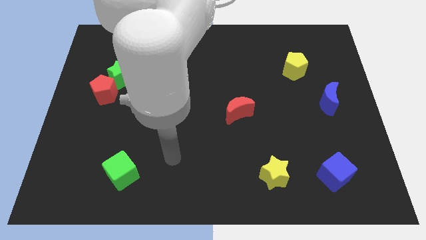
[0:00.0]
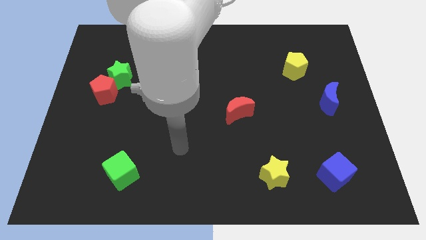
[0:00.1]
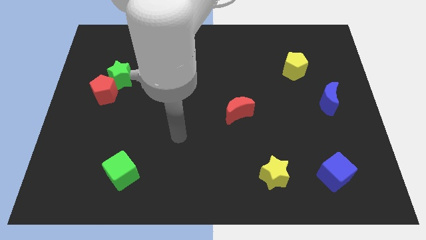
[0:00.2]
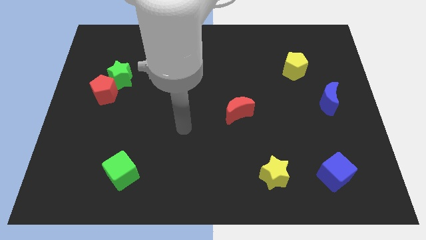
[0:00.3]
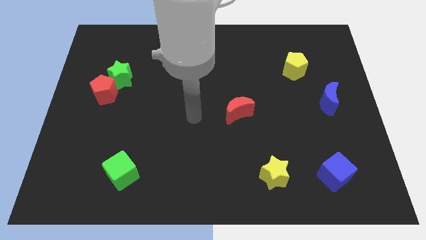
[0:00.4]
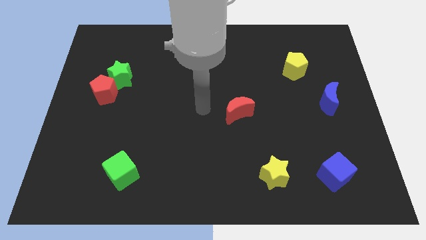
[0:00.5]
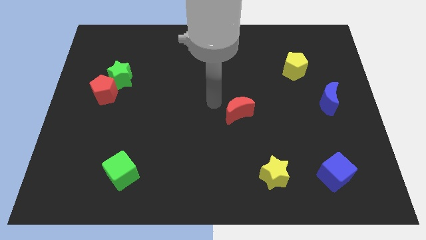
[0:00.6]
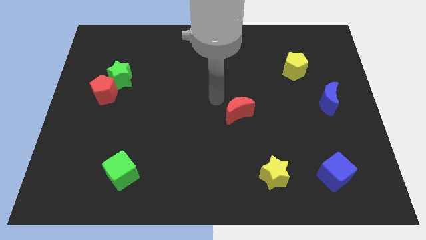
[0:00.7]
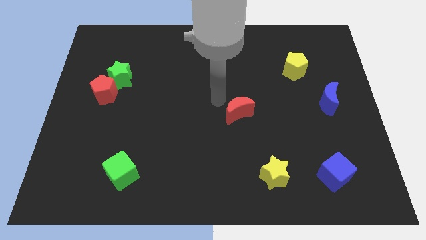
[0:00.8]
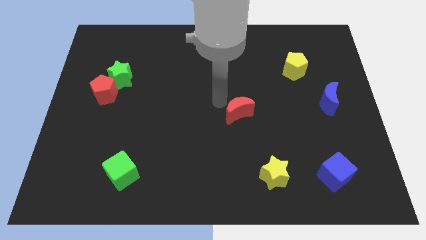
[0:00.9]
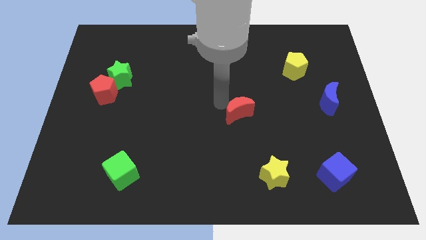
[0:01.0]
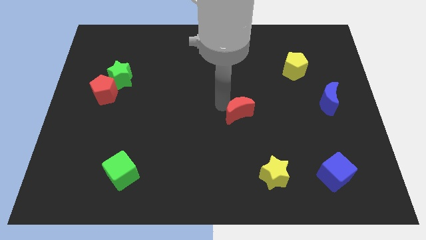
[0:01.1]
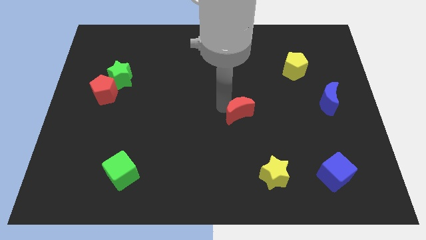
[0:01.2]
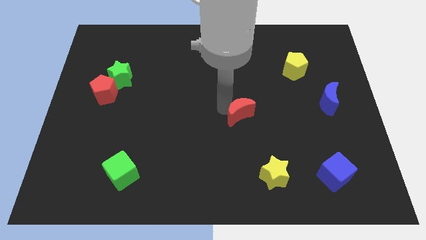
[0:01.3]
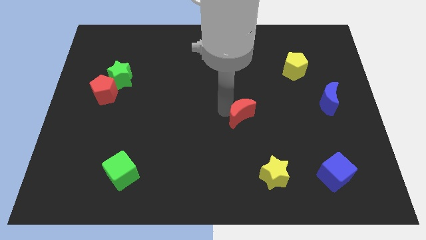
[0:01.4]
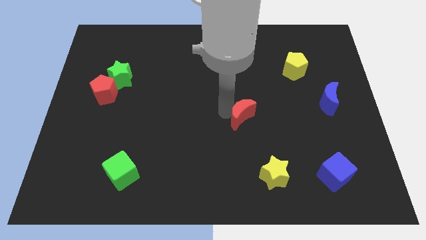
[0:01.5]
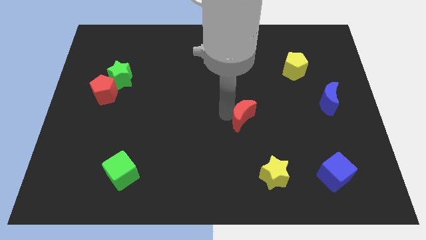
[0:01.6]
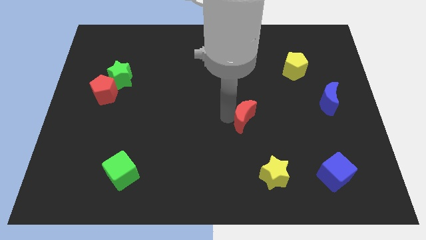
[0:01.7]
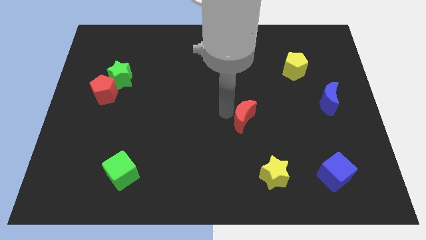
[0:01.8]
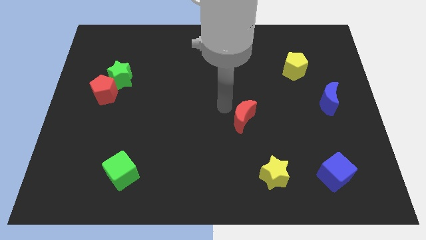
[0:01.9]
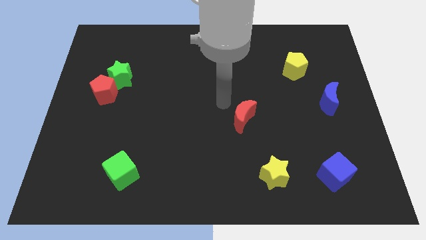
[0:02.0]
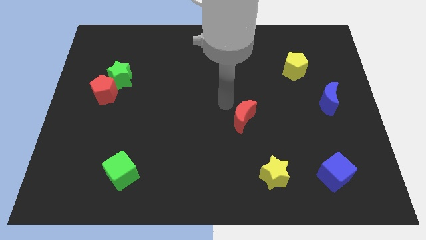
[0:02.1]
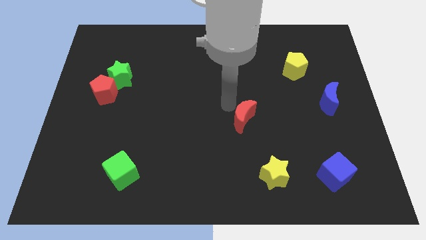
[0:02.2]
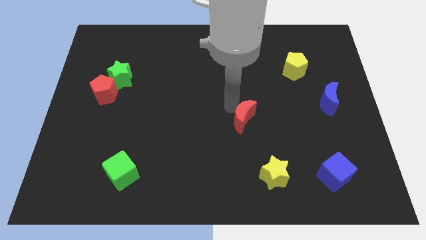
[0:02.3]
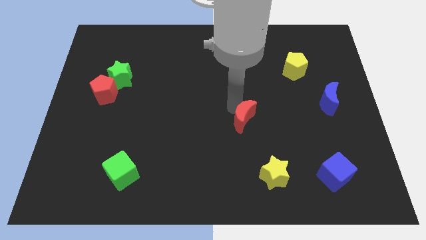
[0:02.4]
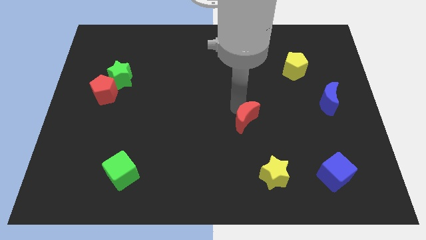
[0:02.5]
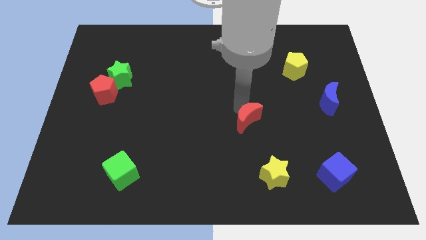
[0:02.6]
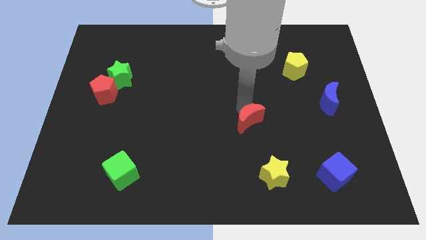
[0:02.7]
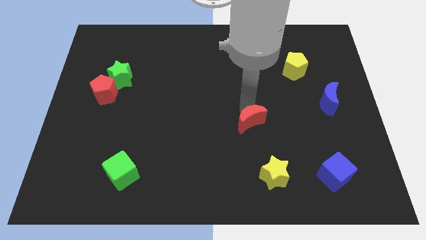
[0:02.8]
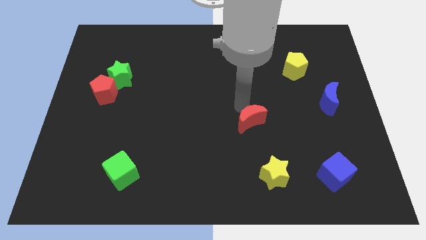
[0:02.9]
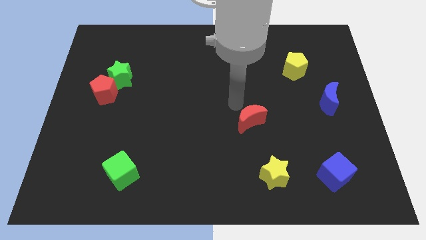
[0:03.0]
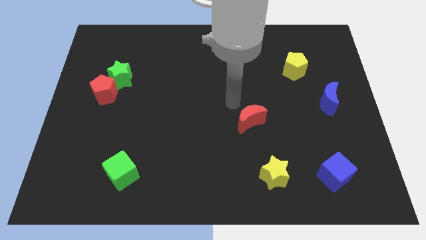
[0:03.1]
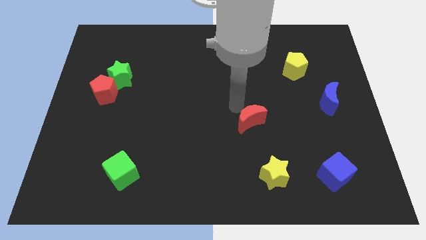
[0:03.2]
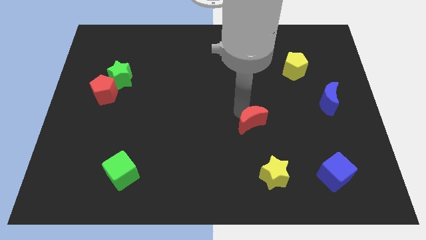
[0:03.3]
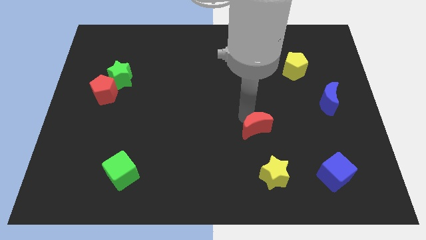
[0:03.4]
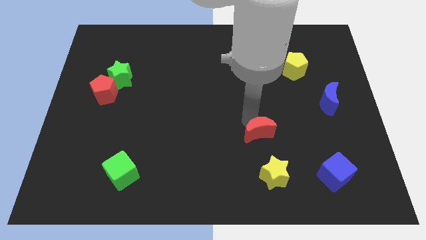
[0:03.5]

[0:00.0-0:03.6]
move the red moon diagonally down and to the right somewhat

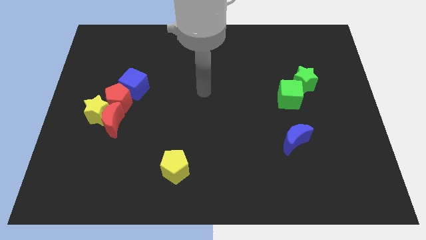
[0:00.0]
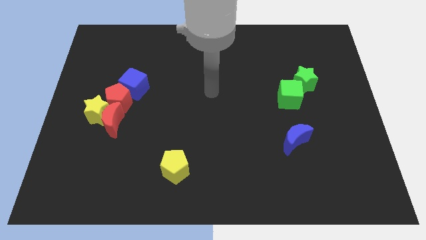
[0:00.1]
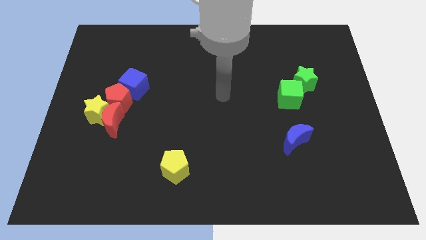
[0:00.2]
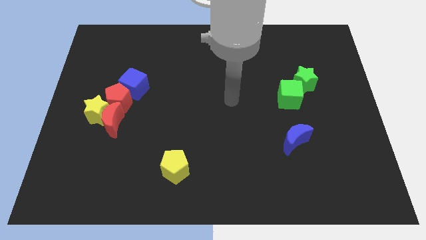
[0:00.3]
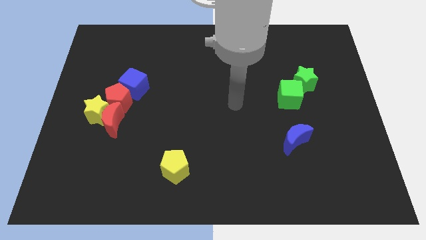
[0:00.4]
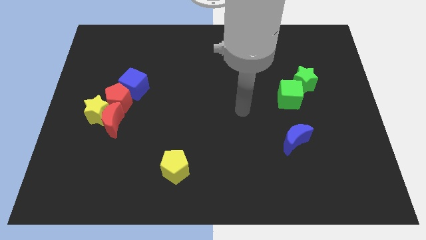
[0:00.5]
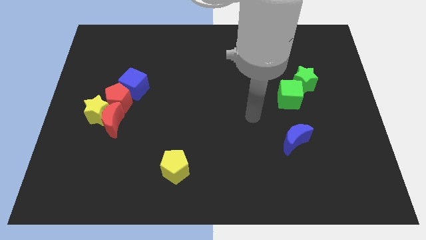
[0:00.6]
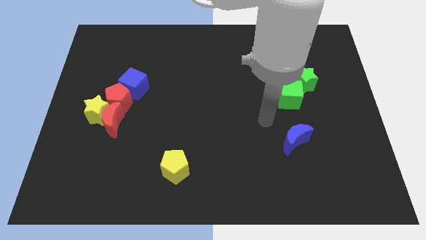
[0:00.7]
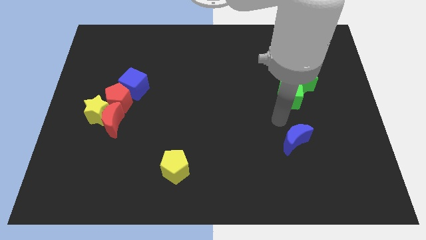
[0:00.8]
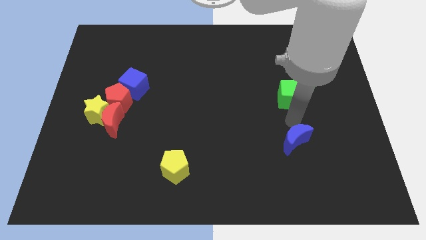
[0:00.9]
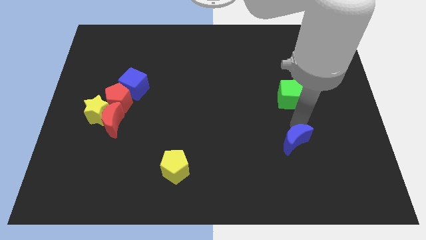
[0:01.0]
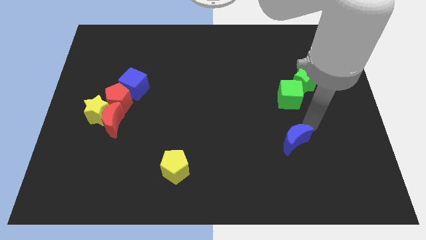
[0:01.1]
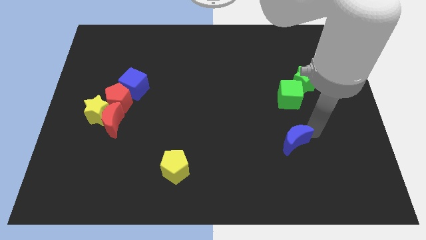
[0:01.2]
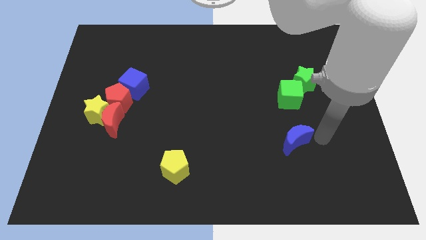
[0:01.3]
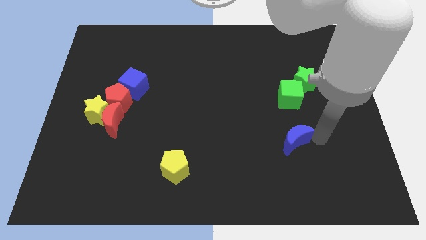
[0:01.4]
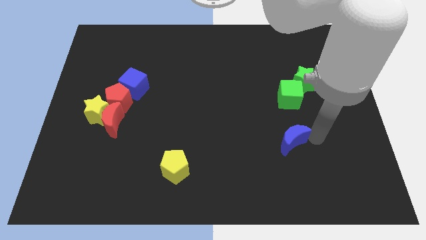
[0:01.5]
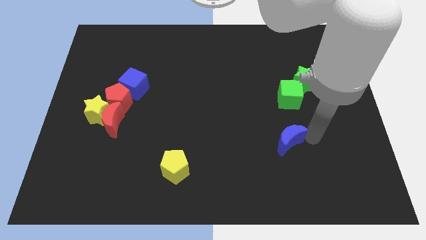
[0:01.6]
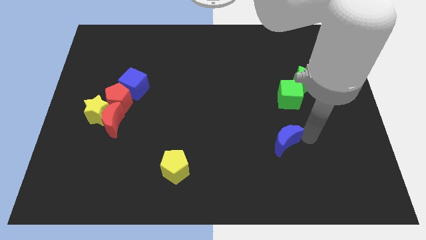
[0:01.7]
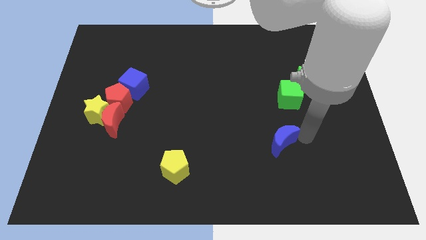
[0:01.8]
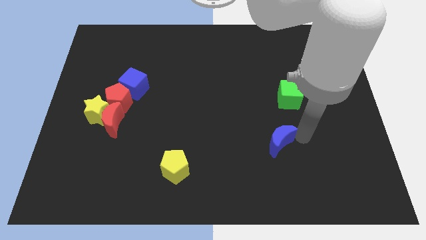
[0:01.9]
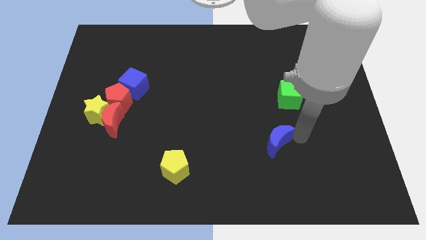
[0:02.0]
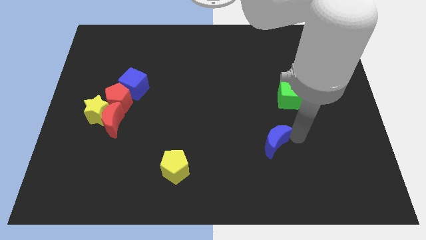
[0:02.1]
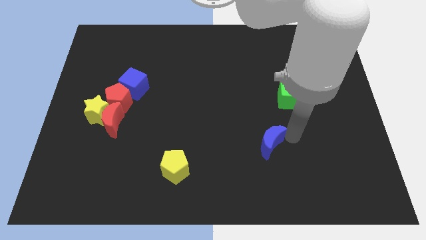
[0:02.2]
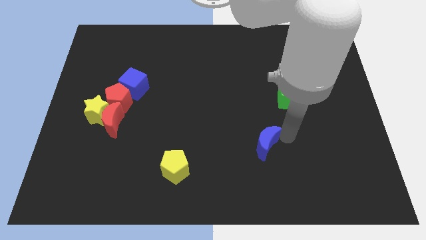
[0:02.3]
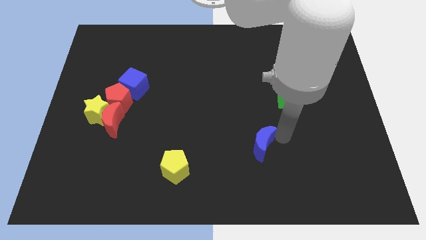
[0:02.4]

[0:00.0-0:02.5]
push the blue moon left slightly

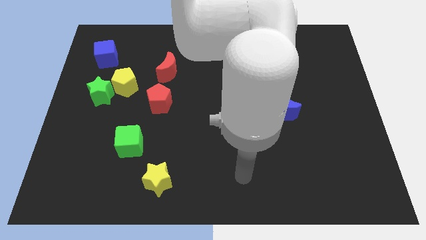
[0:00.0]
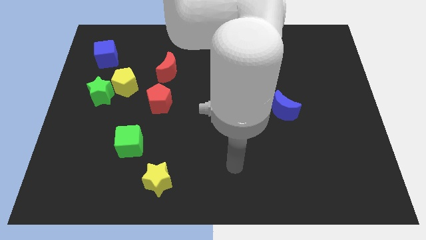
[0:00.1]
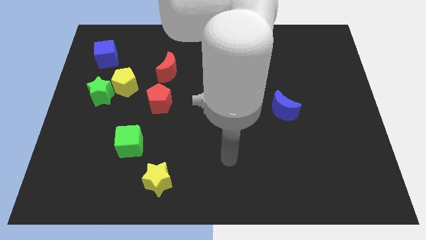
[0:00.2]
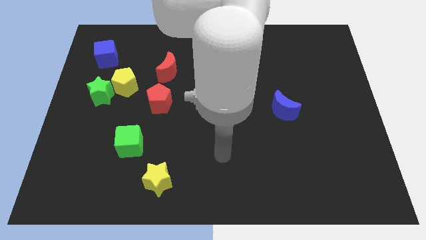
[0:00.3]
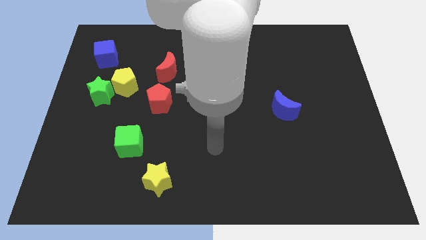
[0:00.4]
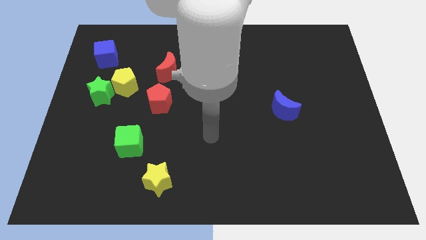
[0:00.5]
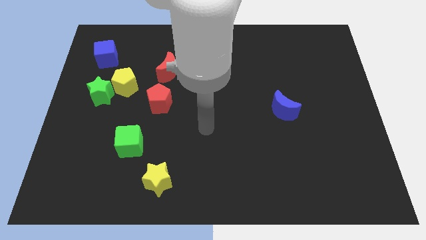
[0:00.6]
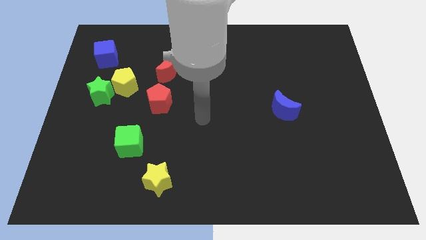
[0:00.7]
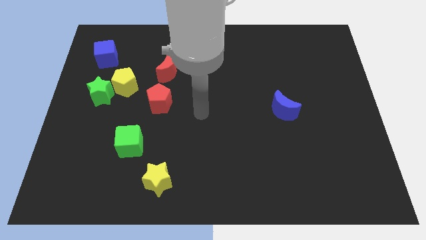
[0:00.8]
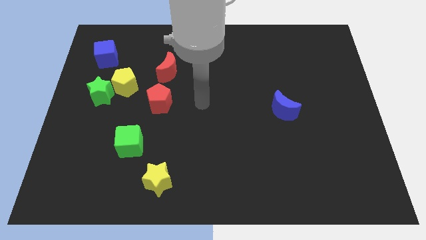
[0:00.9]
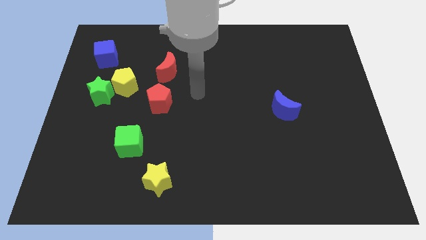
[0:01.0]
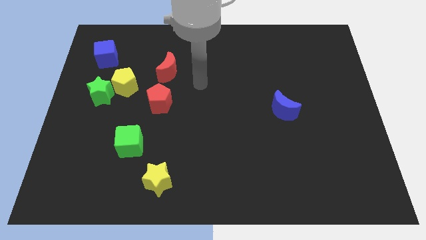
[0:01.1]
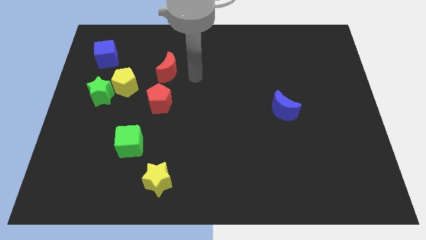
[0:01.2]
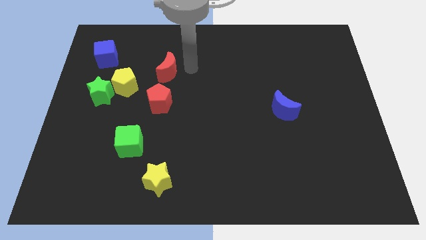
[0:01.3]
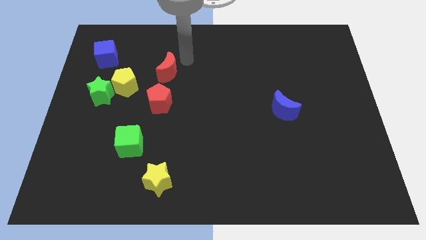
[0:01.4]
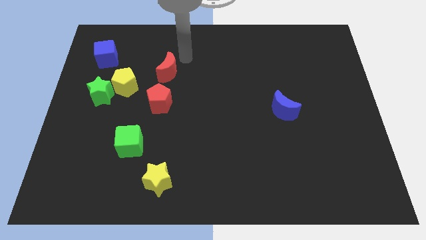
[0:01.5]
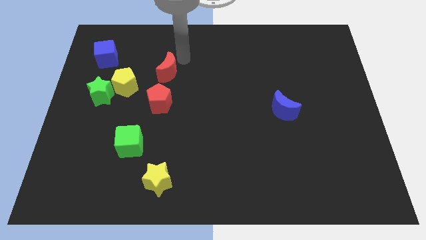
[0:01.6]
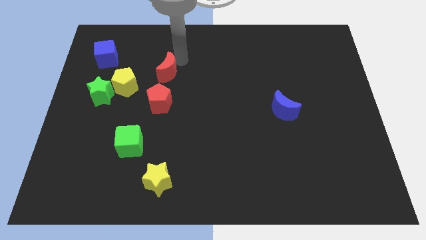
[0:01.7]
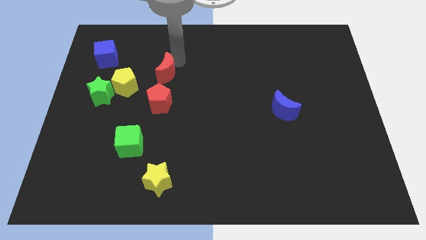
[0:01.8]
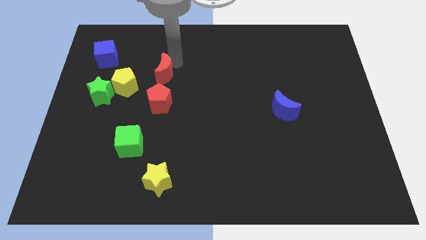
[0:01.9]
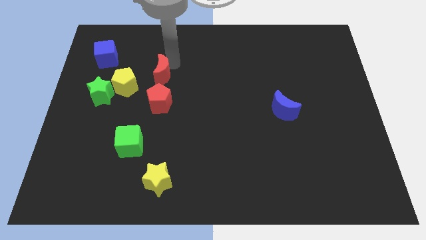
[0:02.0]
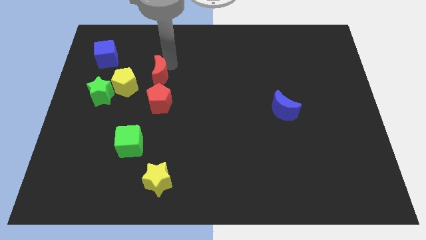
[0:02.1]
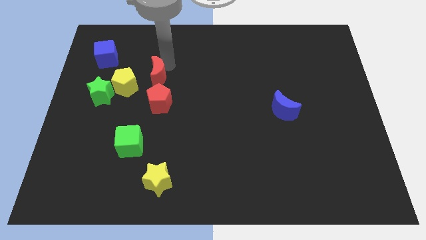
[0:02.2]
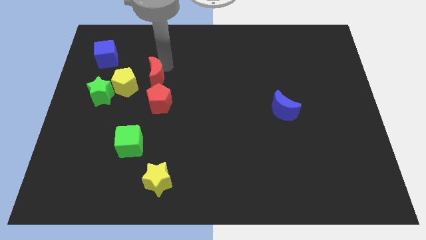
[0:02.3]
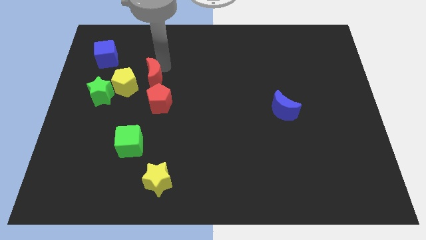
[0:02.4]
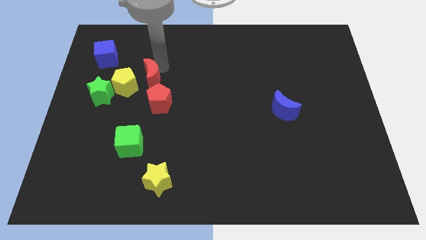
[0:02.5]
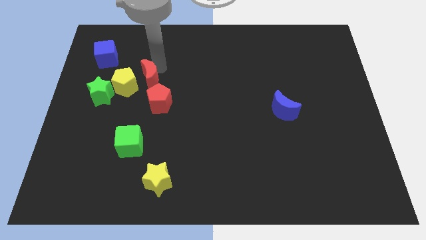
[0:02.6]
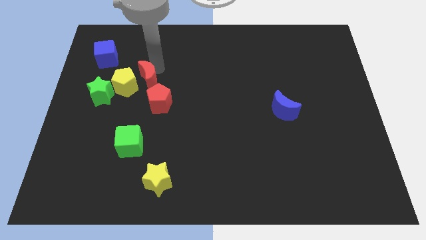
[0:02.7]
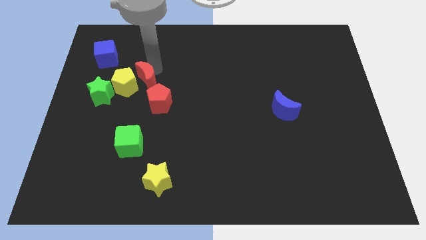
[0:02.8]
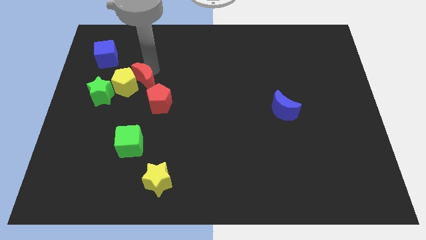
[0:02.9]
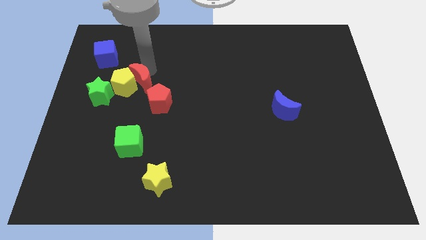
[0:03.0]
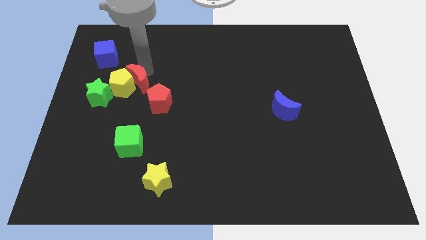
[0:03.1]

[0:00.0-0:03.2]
slide the red moon a bit downwards and then to the left
